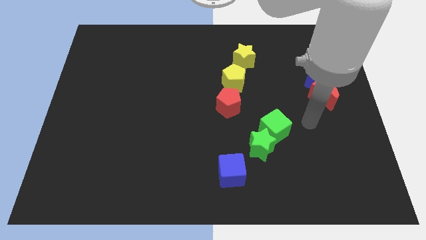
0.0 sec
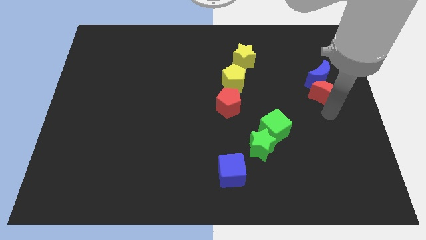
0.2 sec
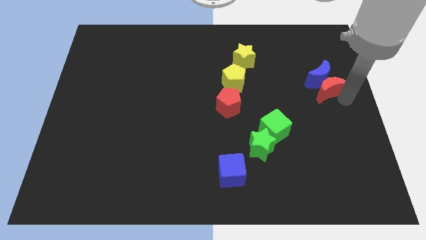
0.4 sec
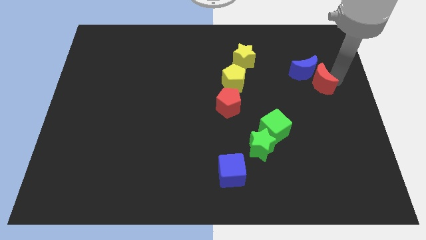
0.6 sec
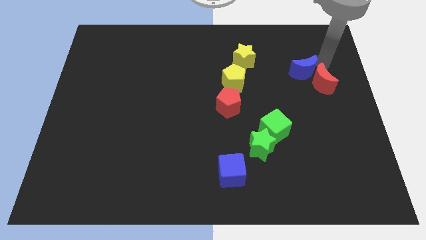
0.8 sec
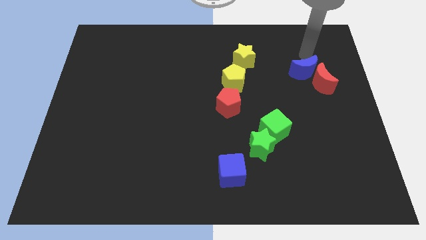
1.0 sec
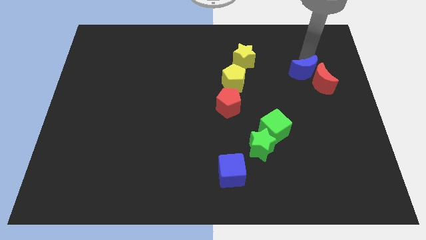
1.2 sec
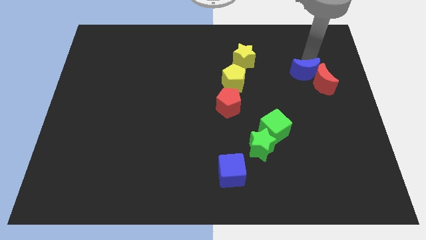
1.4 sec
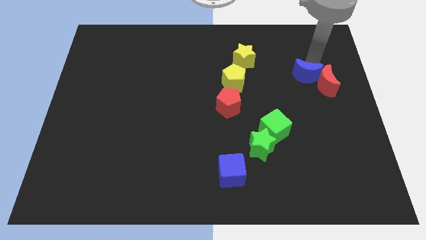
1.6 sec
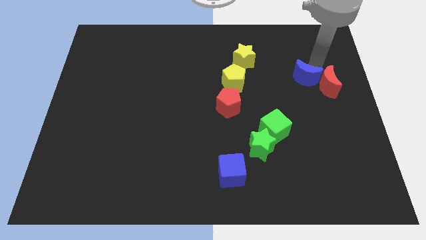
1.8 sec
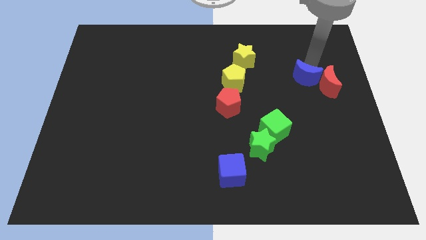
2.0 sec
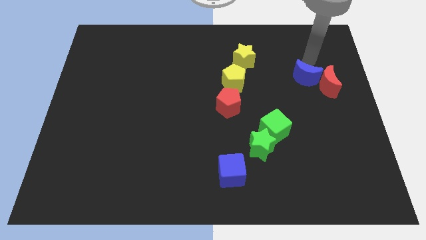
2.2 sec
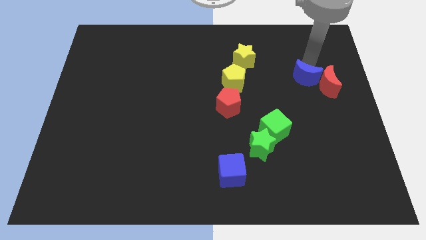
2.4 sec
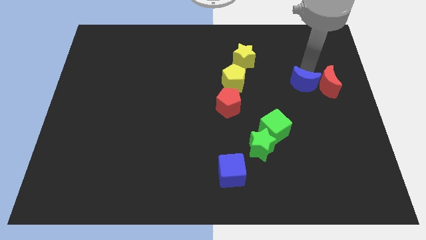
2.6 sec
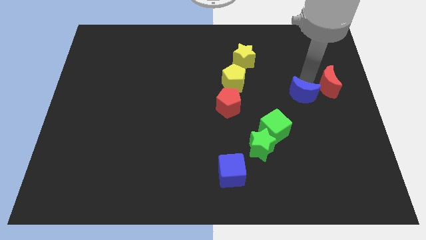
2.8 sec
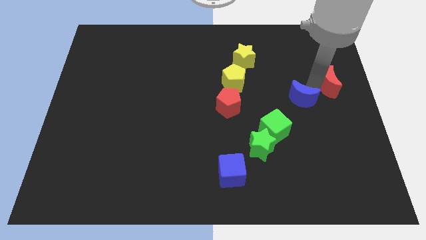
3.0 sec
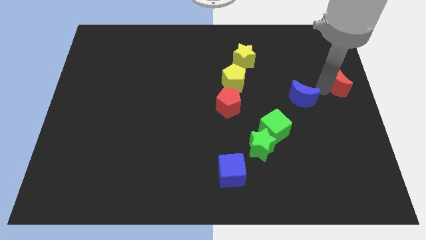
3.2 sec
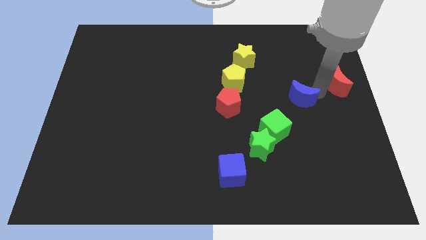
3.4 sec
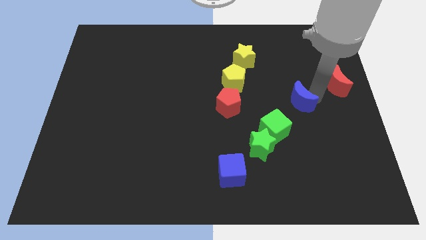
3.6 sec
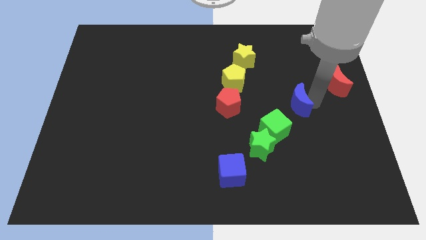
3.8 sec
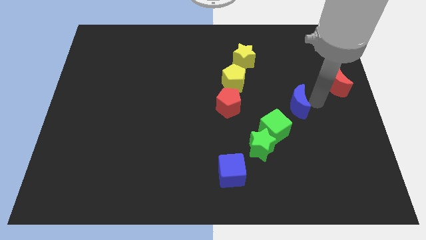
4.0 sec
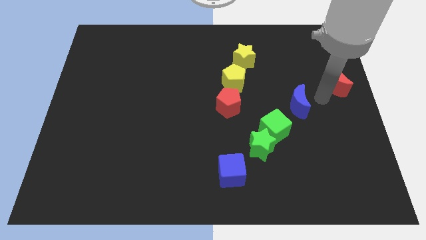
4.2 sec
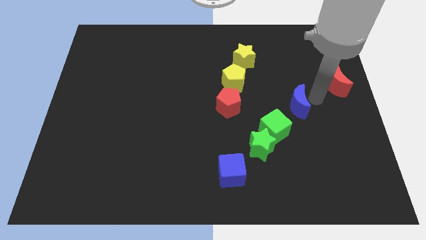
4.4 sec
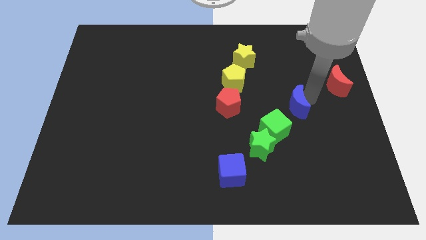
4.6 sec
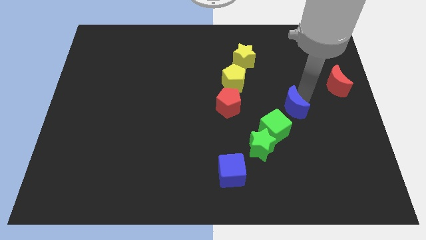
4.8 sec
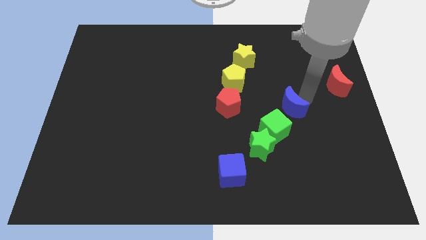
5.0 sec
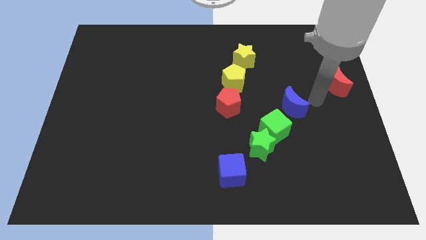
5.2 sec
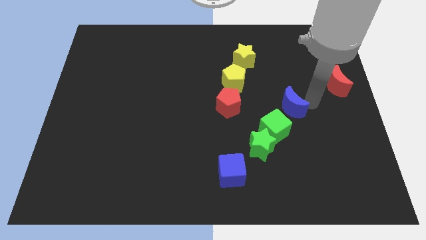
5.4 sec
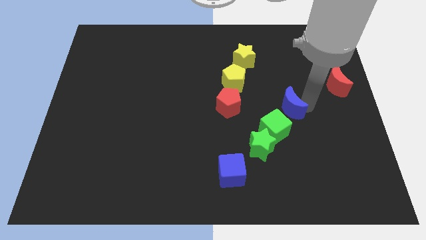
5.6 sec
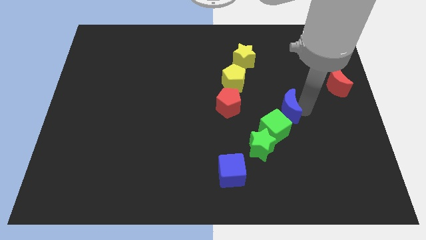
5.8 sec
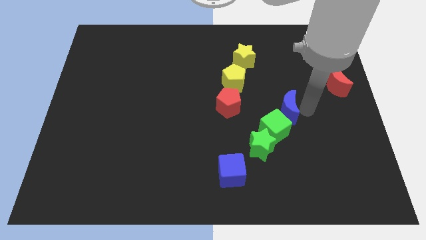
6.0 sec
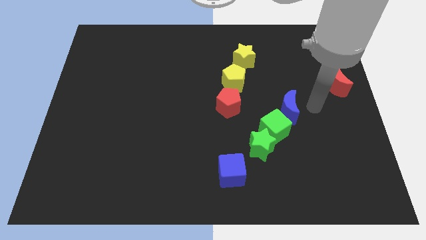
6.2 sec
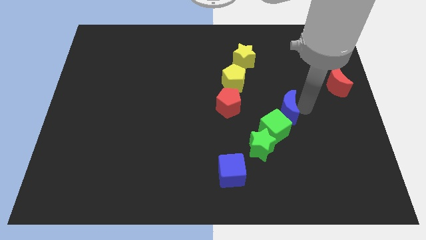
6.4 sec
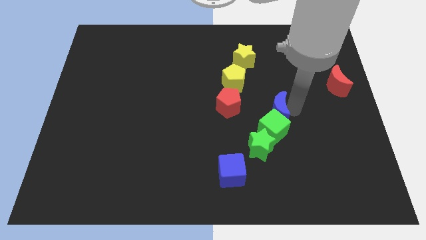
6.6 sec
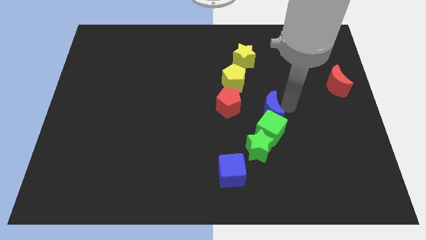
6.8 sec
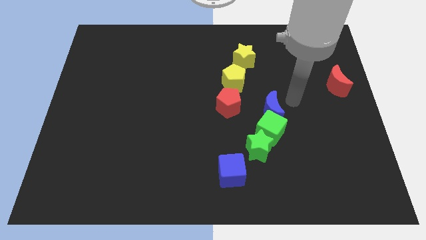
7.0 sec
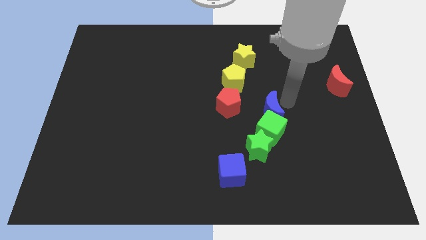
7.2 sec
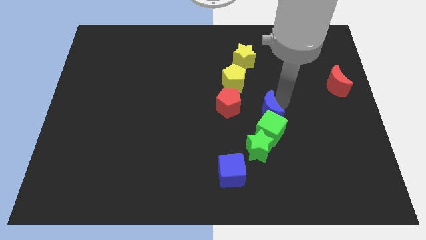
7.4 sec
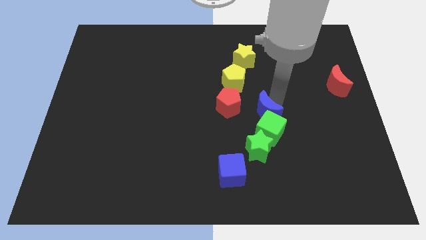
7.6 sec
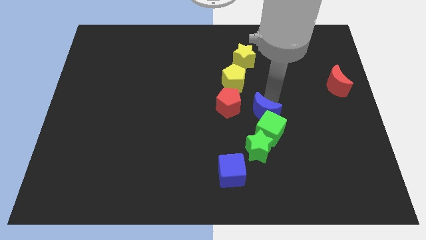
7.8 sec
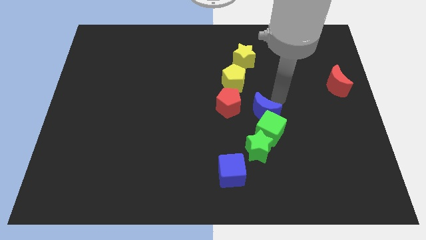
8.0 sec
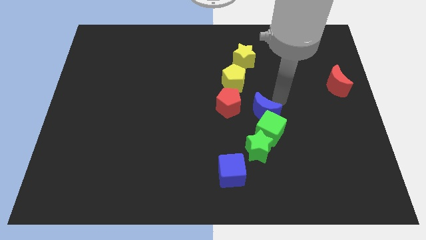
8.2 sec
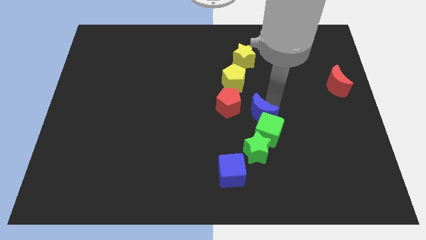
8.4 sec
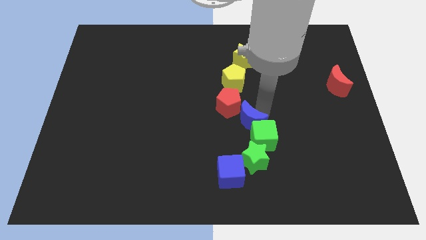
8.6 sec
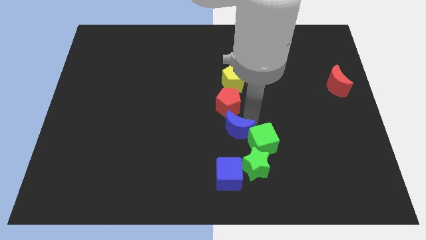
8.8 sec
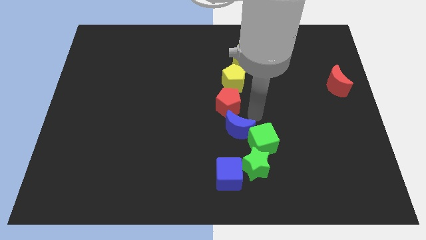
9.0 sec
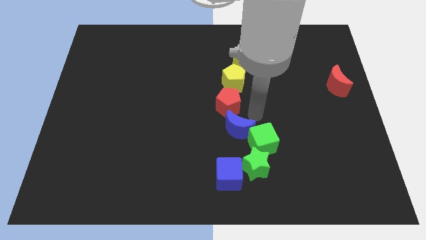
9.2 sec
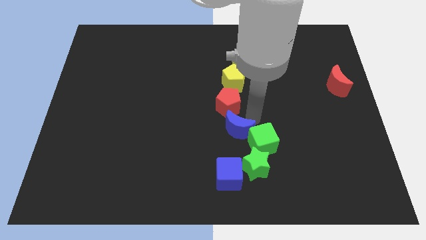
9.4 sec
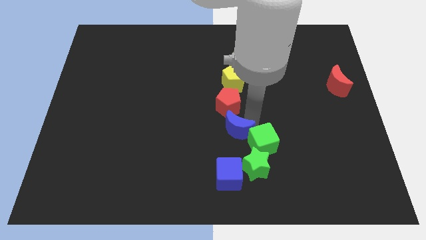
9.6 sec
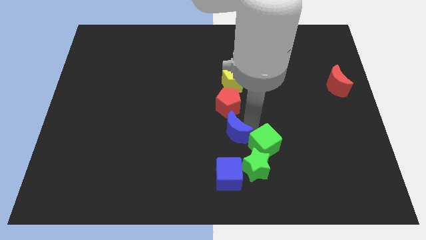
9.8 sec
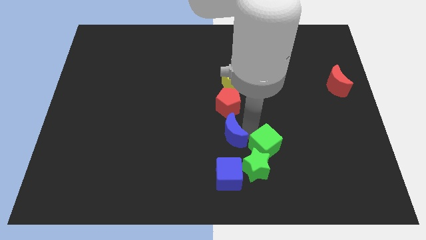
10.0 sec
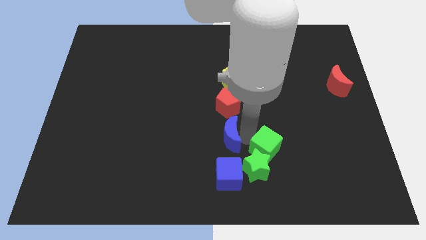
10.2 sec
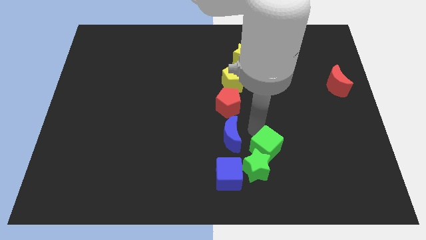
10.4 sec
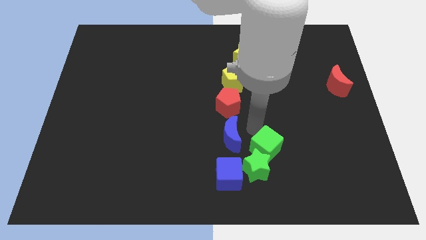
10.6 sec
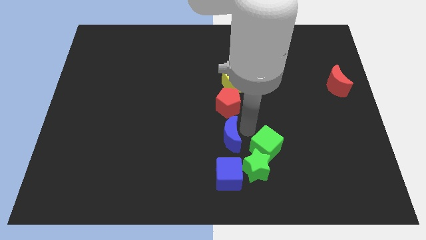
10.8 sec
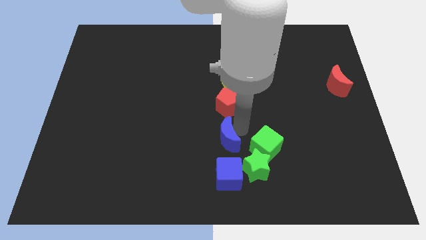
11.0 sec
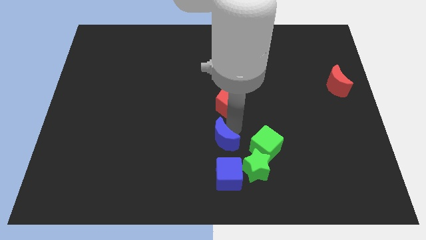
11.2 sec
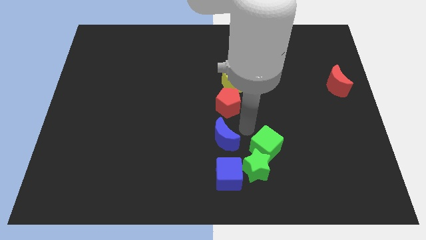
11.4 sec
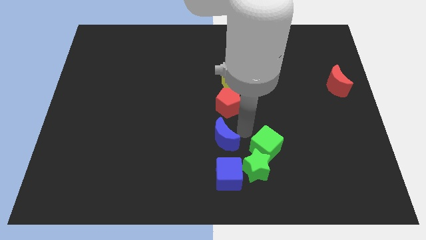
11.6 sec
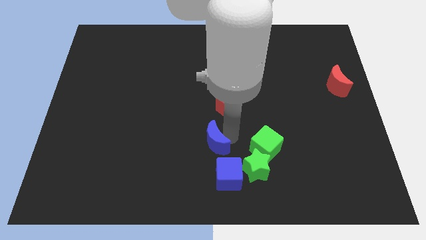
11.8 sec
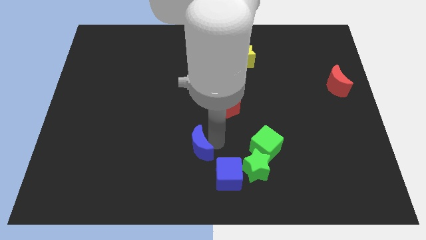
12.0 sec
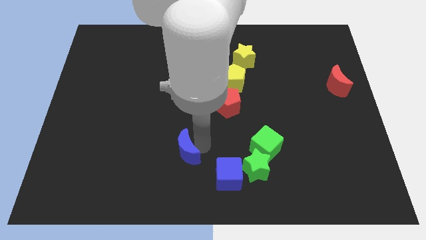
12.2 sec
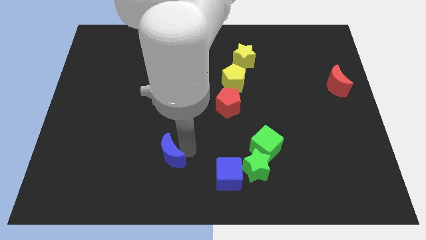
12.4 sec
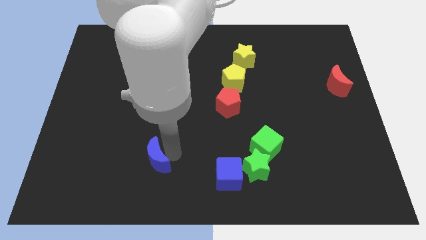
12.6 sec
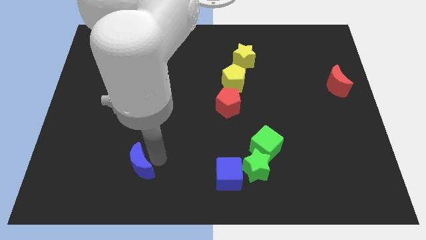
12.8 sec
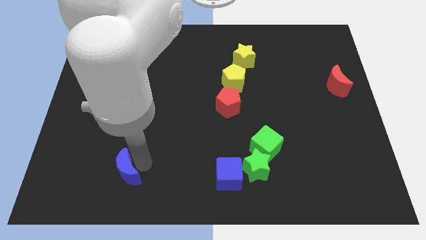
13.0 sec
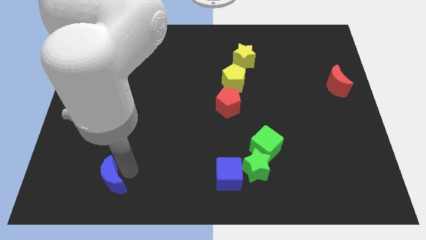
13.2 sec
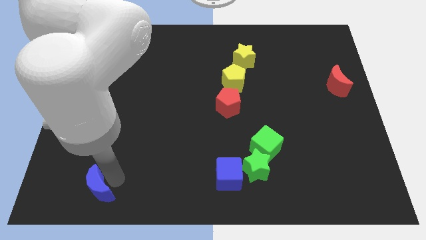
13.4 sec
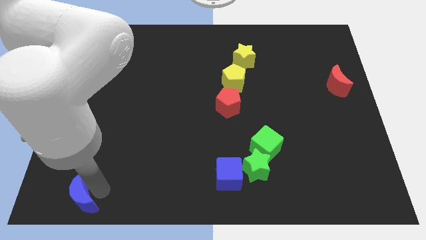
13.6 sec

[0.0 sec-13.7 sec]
slide the blue moon to the bottom left of the board

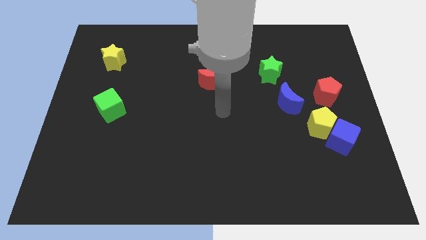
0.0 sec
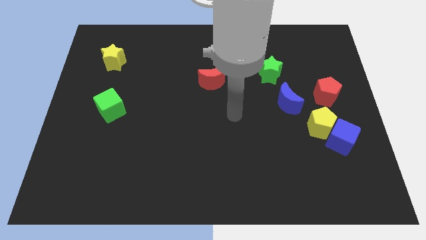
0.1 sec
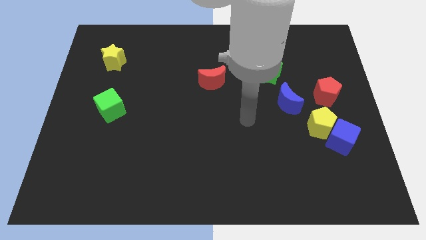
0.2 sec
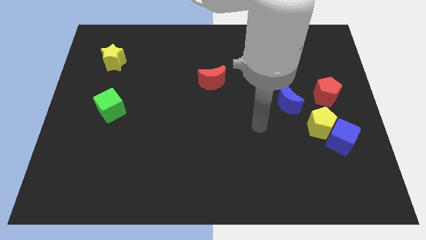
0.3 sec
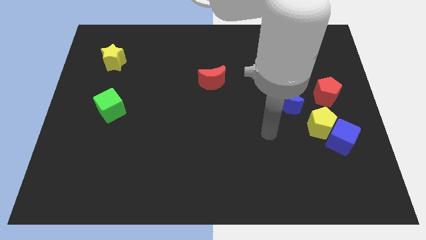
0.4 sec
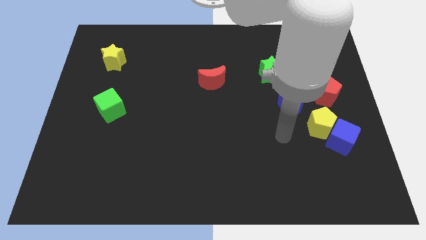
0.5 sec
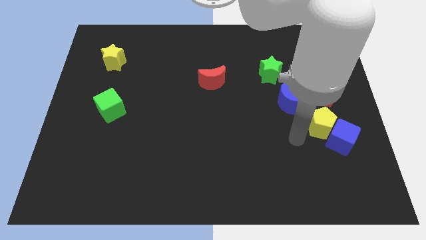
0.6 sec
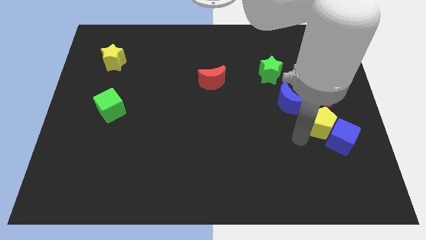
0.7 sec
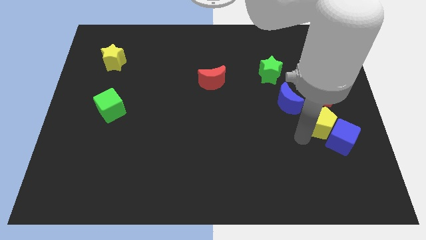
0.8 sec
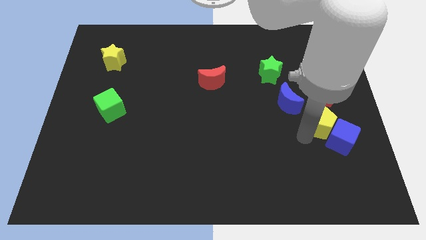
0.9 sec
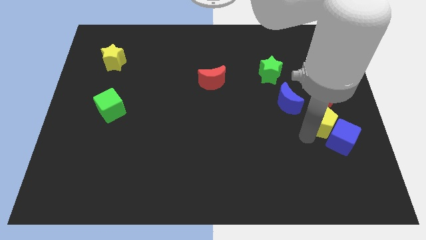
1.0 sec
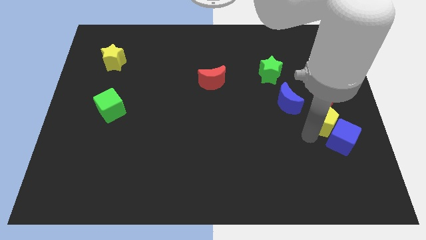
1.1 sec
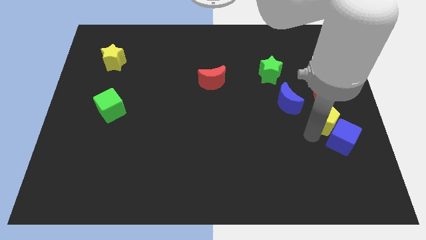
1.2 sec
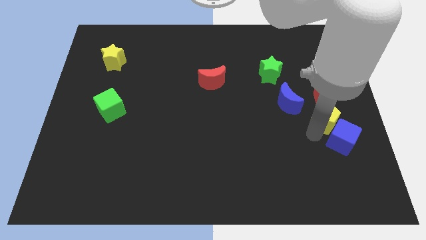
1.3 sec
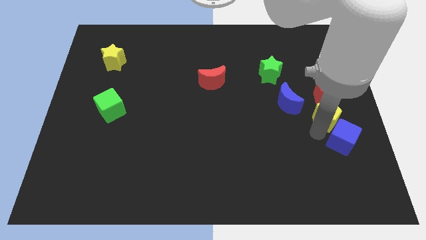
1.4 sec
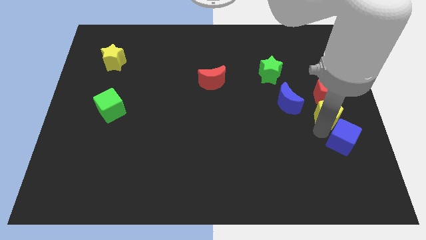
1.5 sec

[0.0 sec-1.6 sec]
push the yellow pentagon to the right side of the board
